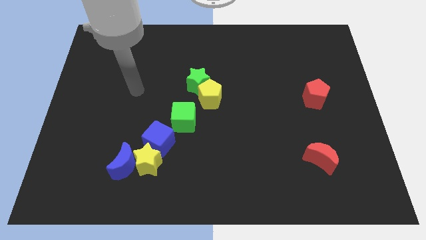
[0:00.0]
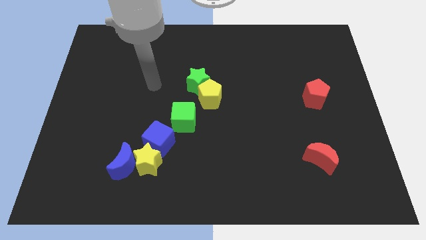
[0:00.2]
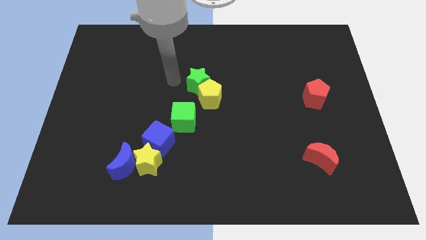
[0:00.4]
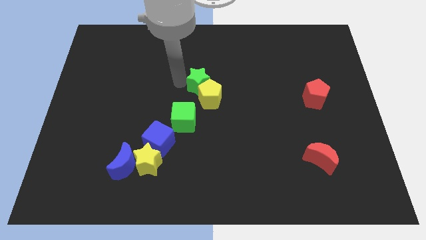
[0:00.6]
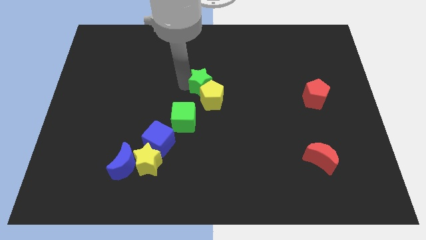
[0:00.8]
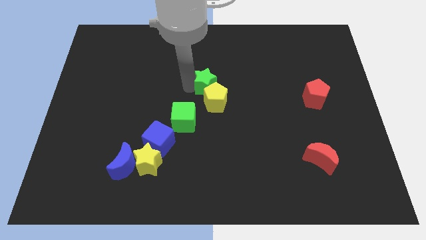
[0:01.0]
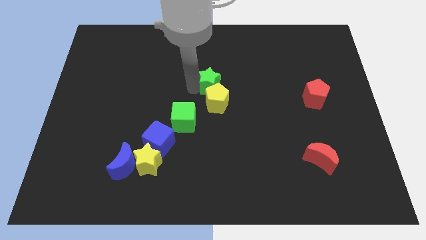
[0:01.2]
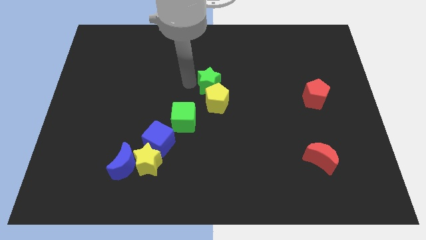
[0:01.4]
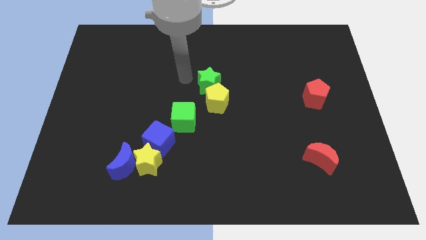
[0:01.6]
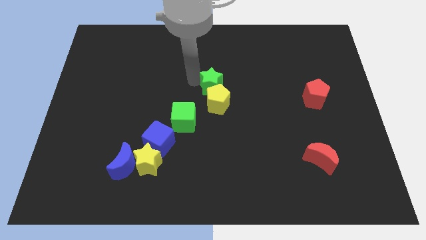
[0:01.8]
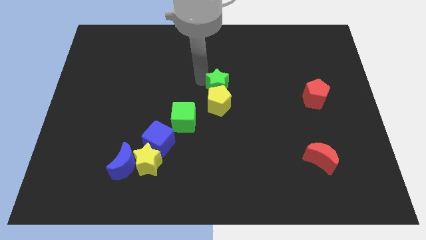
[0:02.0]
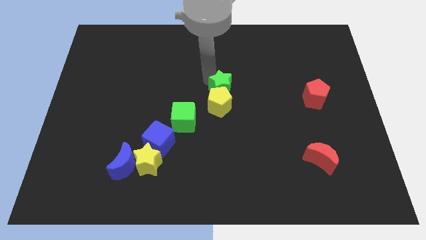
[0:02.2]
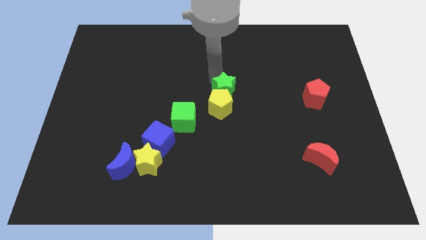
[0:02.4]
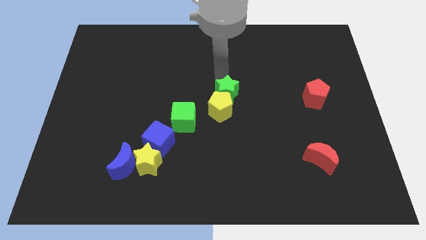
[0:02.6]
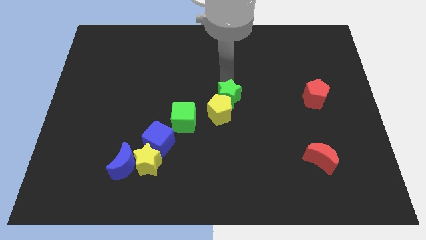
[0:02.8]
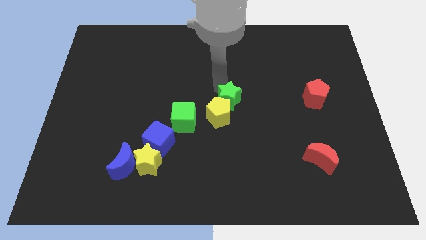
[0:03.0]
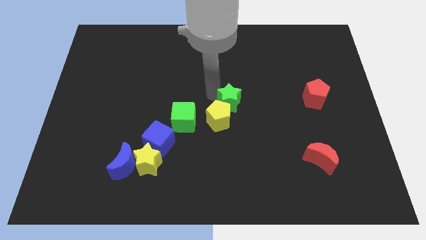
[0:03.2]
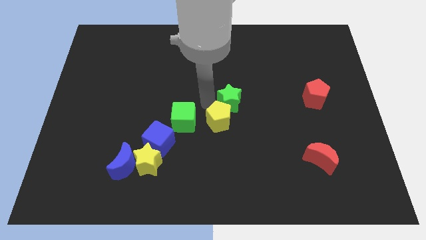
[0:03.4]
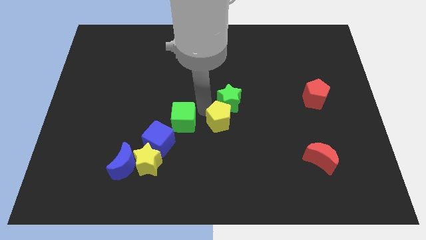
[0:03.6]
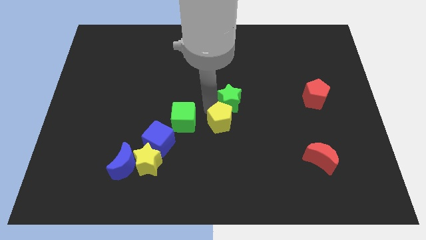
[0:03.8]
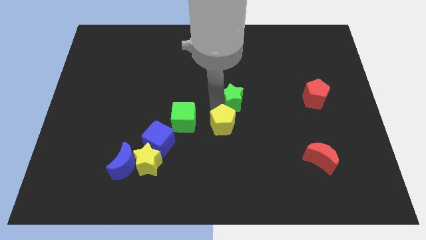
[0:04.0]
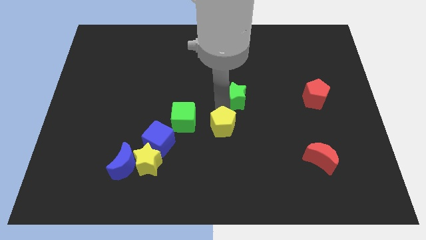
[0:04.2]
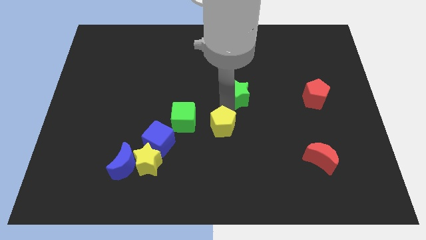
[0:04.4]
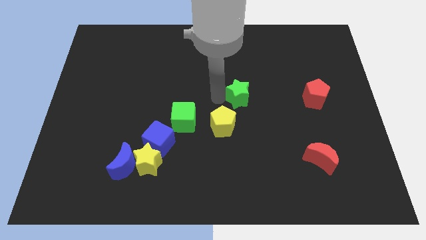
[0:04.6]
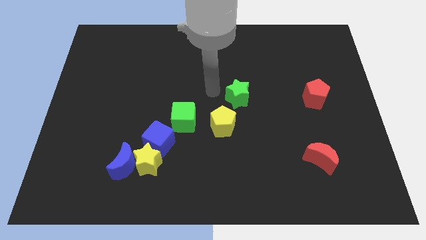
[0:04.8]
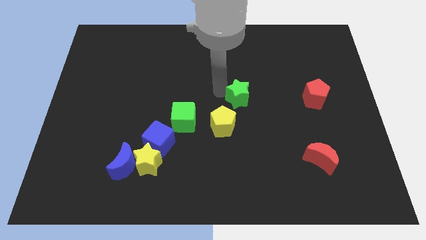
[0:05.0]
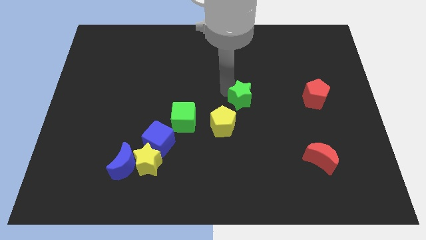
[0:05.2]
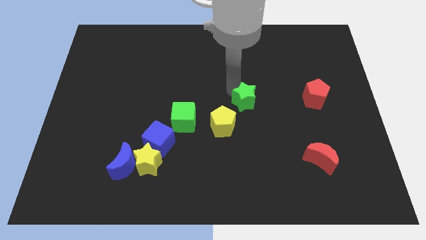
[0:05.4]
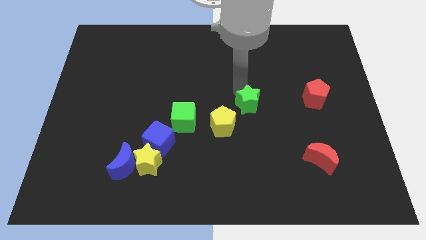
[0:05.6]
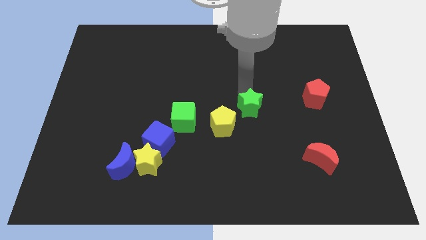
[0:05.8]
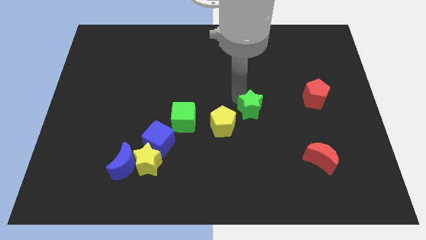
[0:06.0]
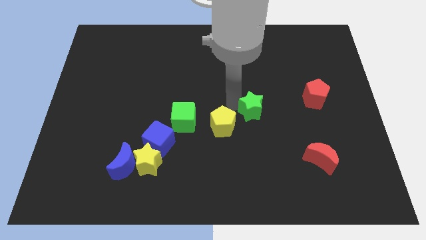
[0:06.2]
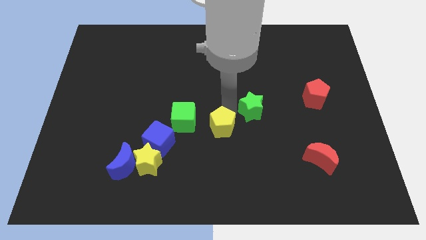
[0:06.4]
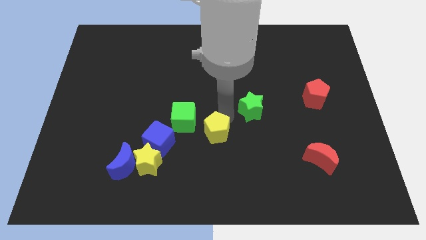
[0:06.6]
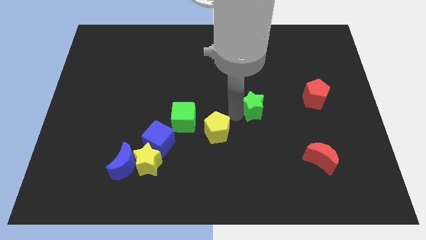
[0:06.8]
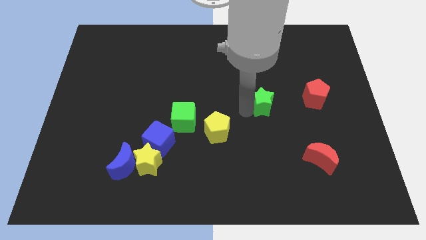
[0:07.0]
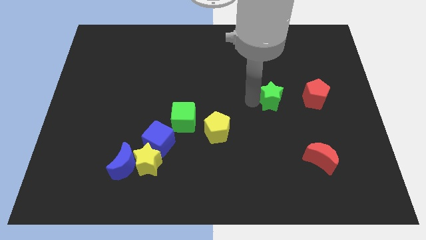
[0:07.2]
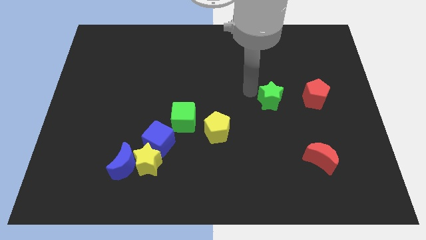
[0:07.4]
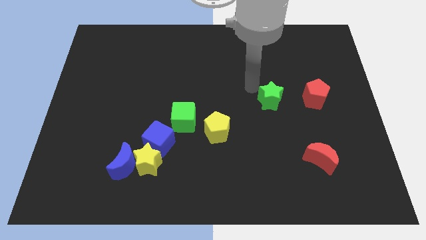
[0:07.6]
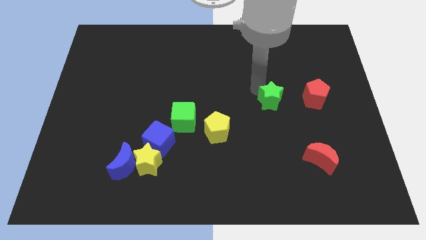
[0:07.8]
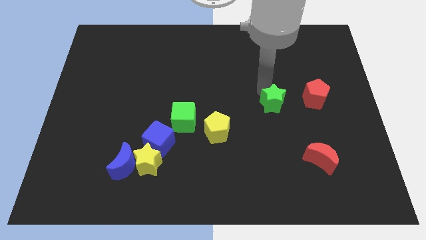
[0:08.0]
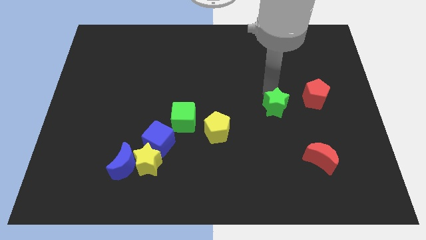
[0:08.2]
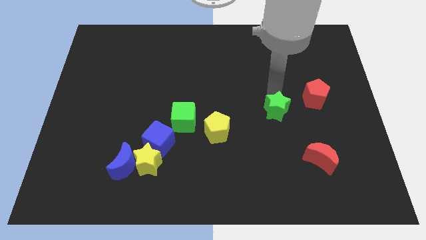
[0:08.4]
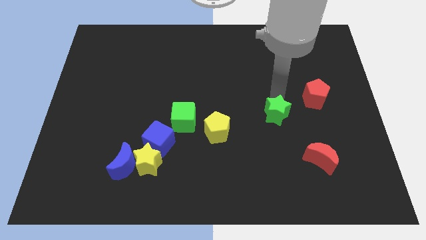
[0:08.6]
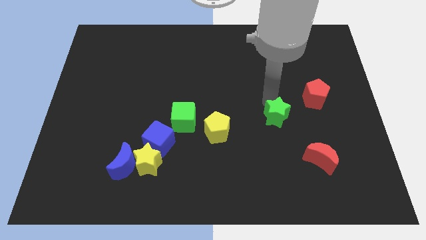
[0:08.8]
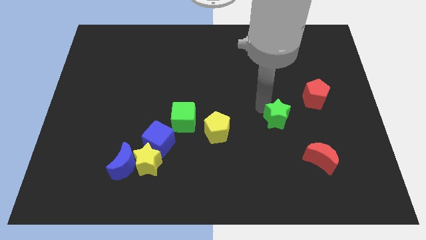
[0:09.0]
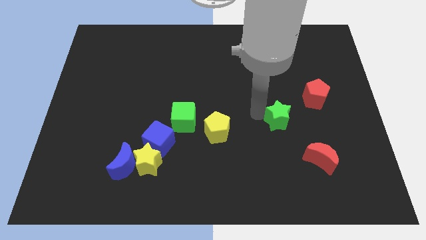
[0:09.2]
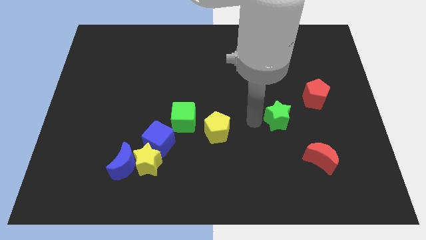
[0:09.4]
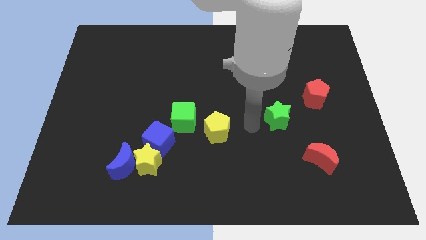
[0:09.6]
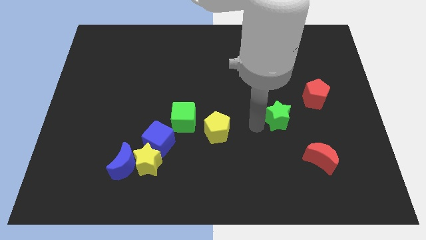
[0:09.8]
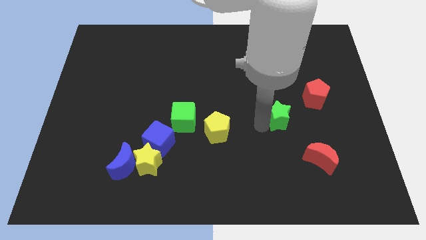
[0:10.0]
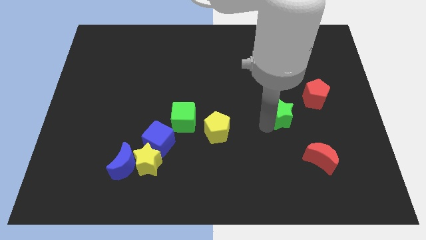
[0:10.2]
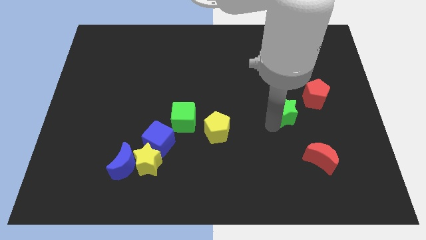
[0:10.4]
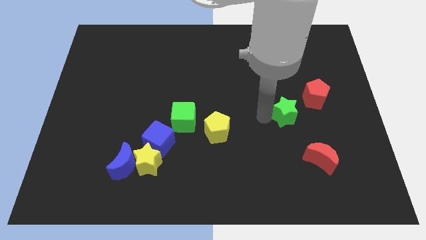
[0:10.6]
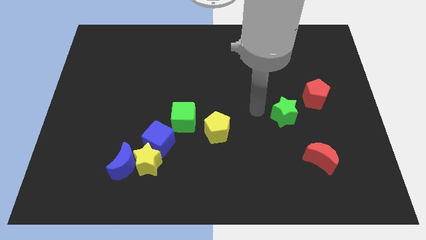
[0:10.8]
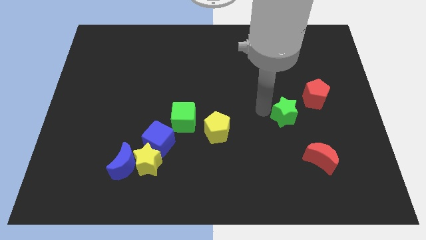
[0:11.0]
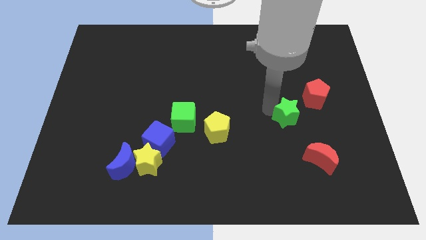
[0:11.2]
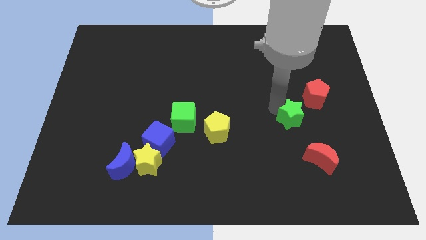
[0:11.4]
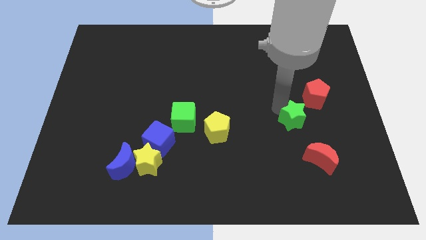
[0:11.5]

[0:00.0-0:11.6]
move the green star to the top of the red moon

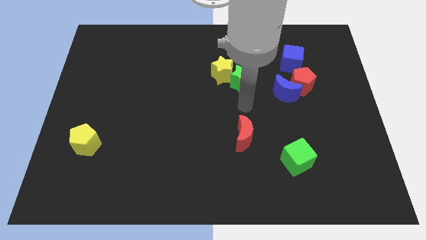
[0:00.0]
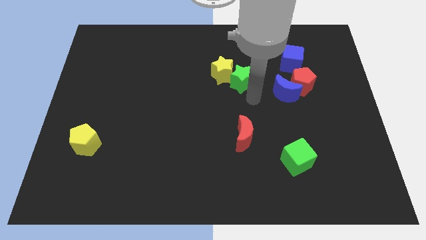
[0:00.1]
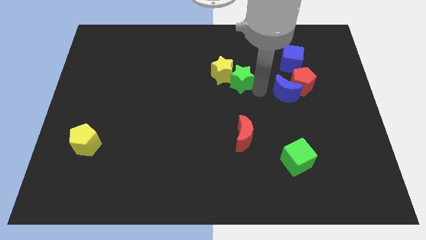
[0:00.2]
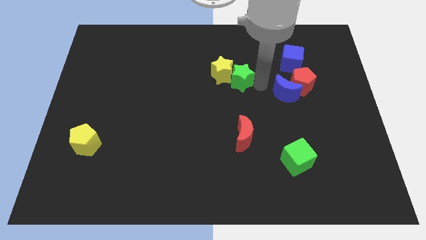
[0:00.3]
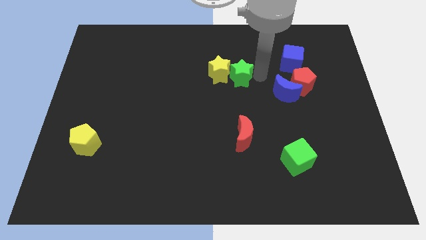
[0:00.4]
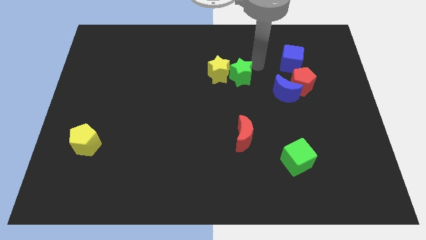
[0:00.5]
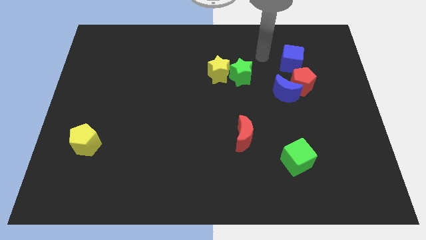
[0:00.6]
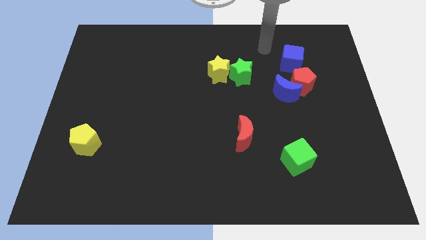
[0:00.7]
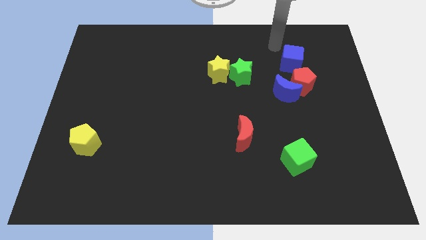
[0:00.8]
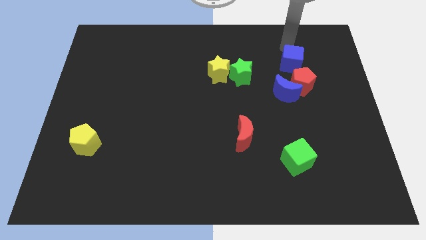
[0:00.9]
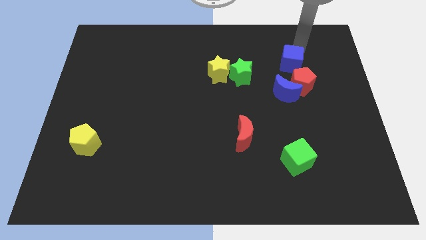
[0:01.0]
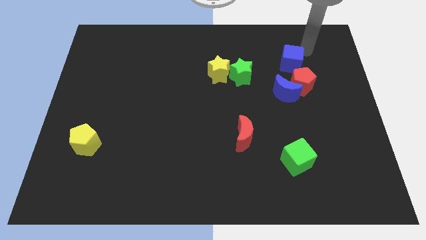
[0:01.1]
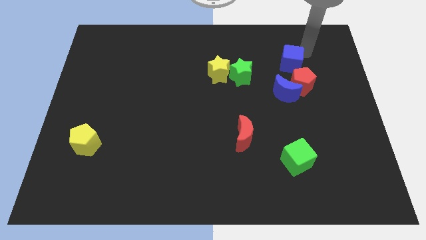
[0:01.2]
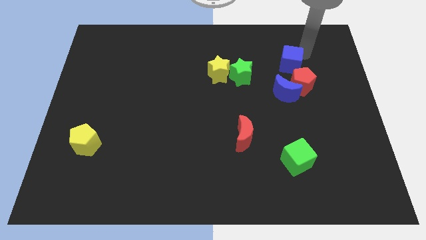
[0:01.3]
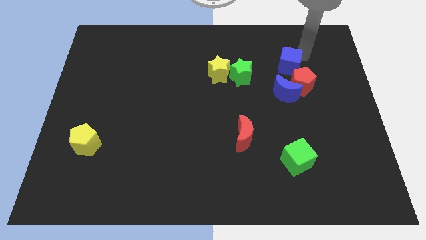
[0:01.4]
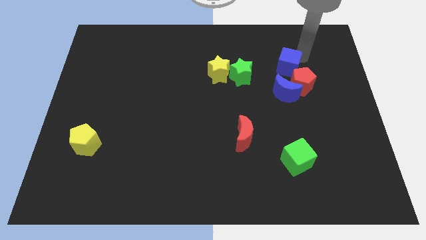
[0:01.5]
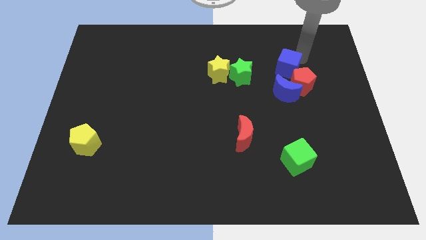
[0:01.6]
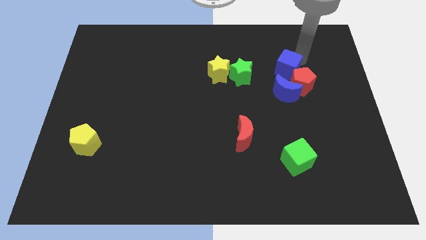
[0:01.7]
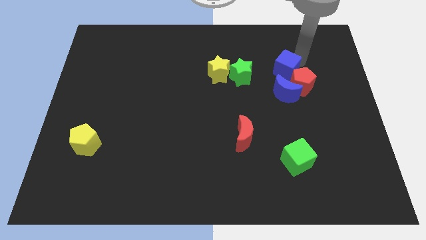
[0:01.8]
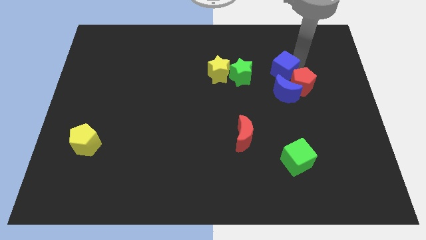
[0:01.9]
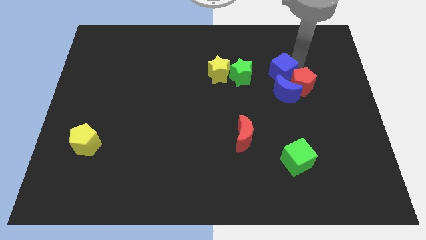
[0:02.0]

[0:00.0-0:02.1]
slide the blue cube just left of the red pentagon
